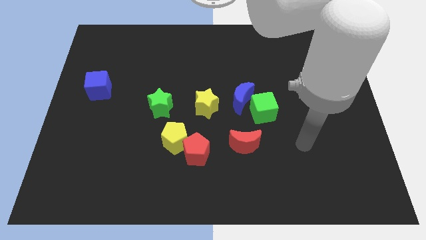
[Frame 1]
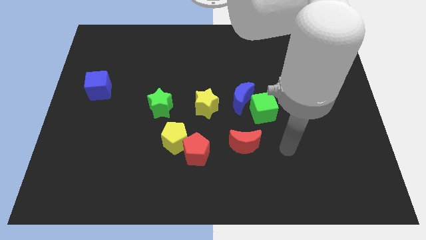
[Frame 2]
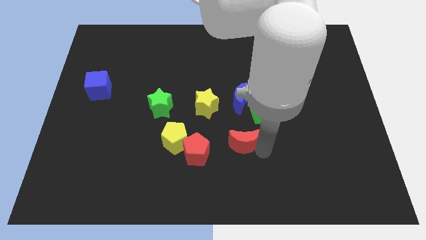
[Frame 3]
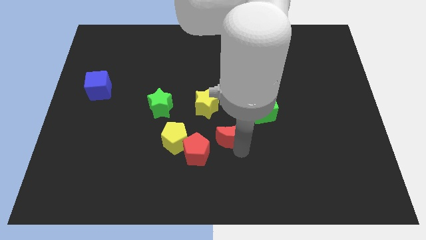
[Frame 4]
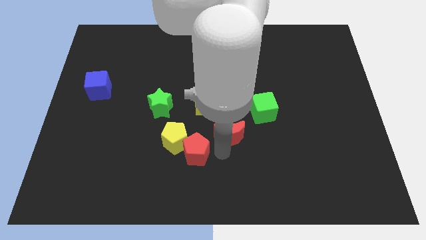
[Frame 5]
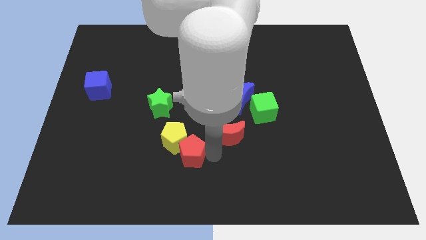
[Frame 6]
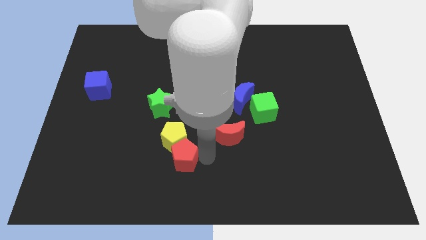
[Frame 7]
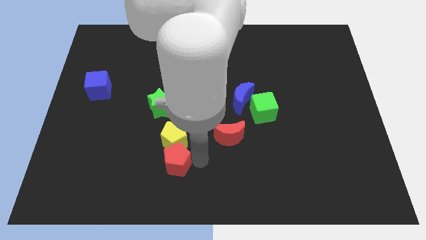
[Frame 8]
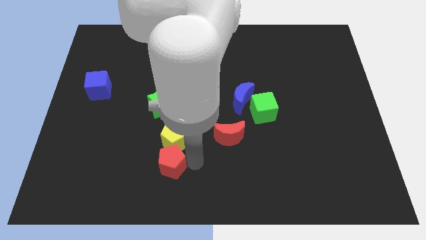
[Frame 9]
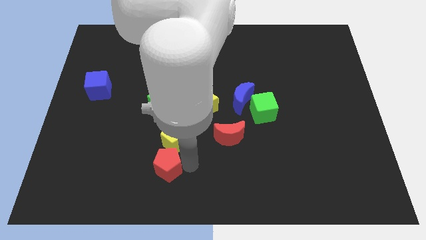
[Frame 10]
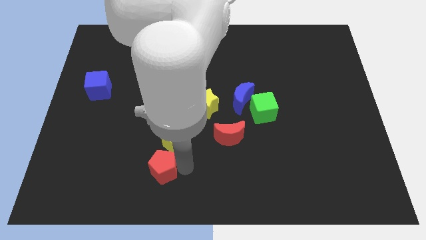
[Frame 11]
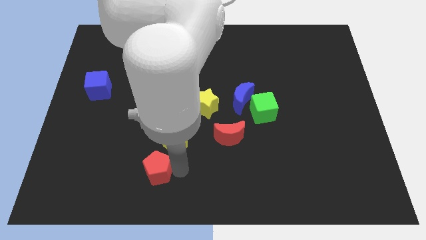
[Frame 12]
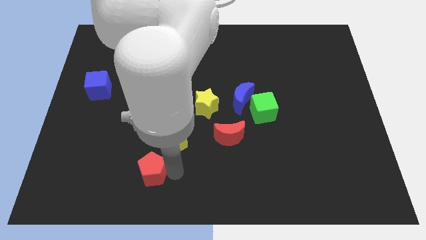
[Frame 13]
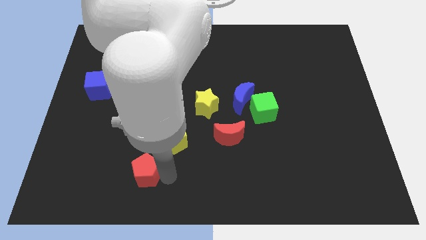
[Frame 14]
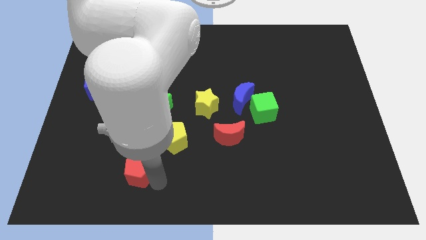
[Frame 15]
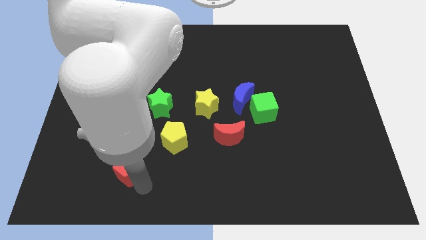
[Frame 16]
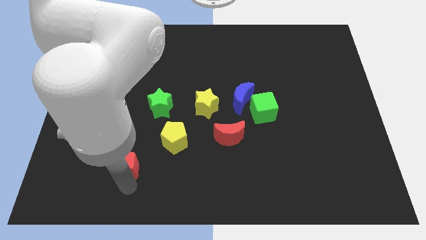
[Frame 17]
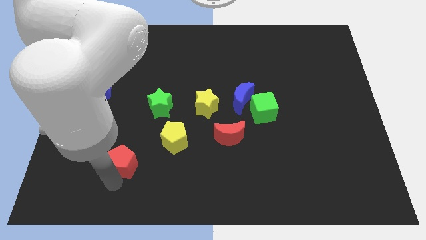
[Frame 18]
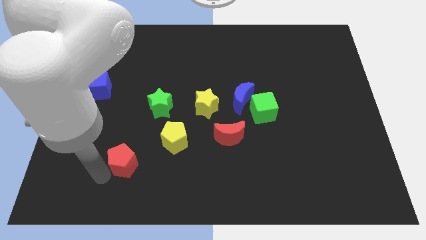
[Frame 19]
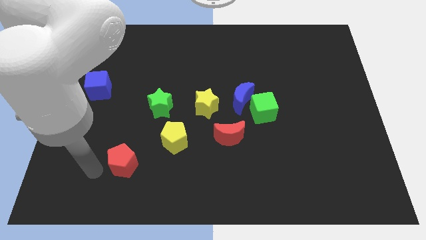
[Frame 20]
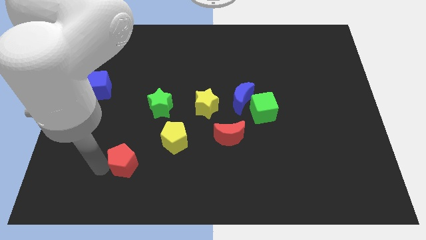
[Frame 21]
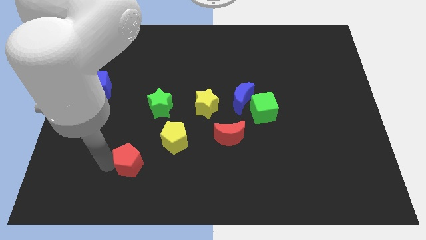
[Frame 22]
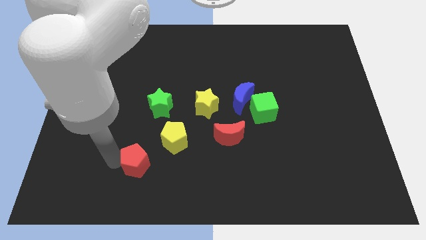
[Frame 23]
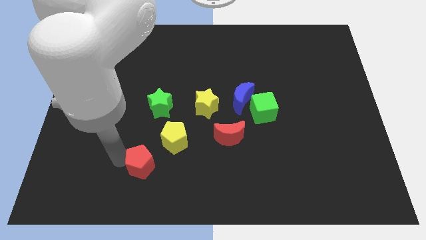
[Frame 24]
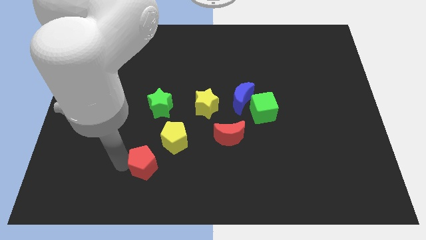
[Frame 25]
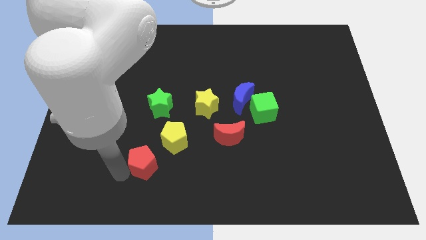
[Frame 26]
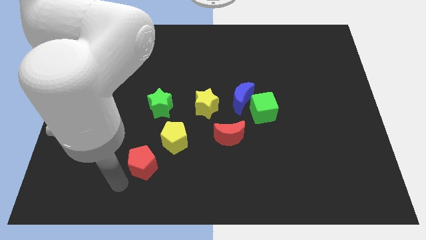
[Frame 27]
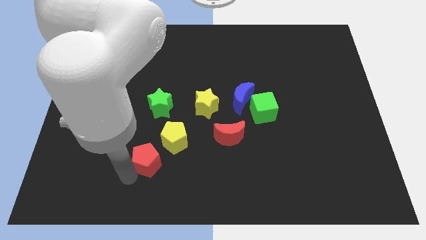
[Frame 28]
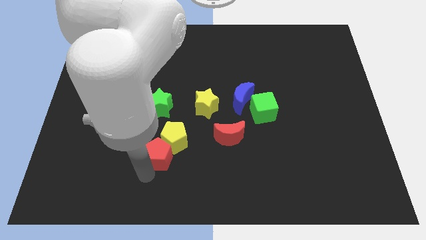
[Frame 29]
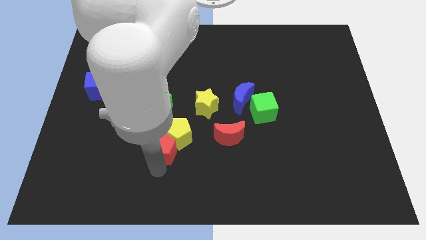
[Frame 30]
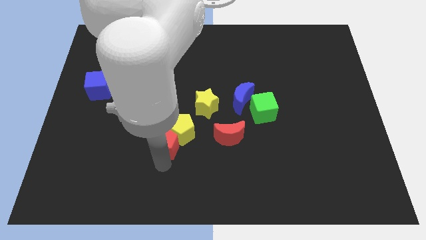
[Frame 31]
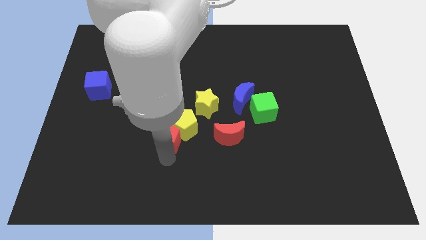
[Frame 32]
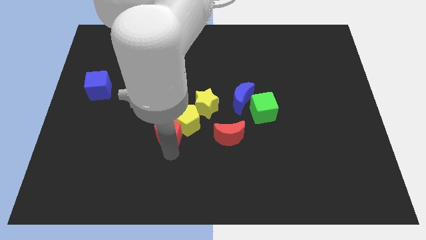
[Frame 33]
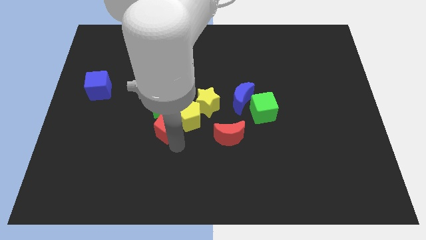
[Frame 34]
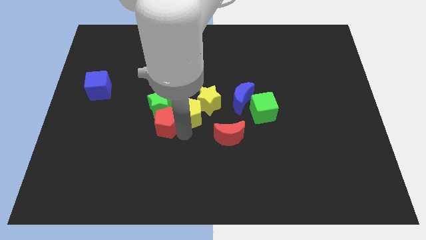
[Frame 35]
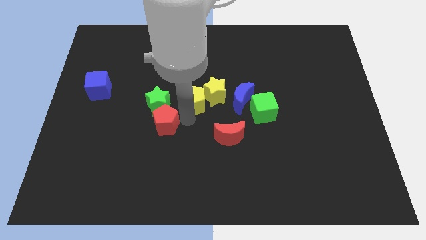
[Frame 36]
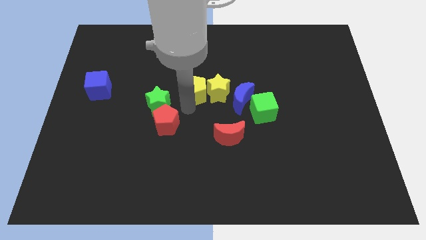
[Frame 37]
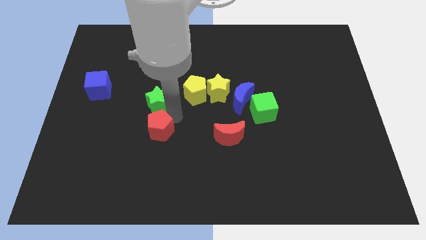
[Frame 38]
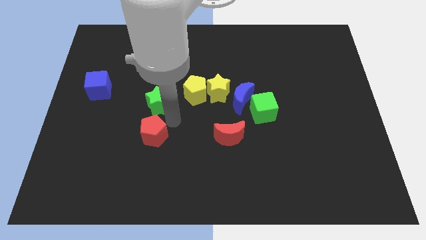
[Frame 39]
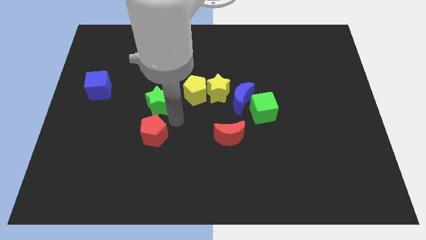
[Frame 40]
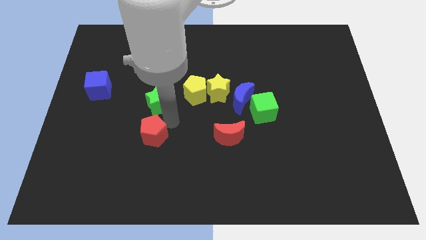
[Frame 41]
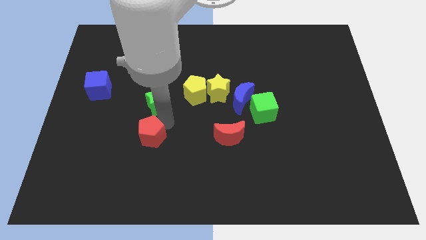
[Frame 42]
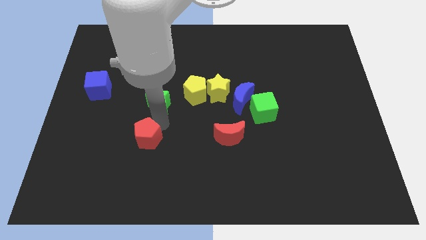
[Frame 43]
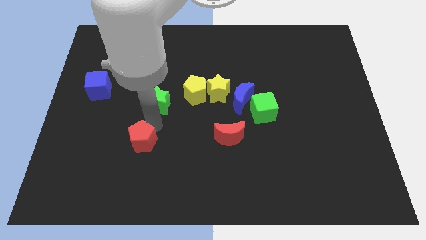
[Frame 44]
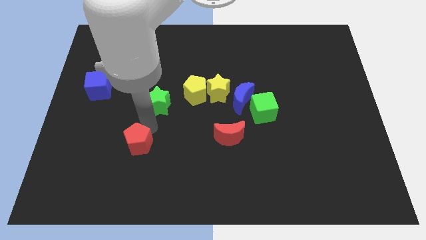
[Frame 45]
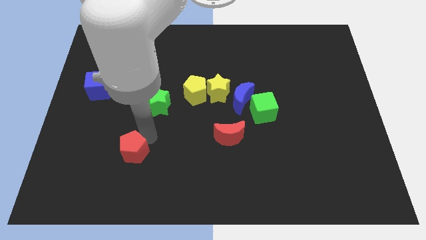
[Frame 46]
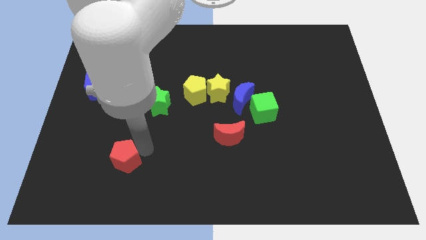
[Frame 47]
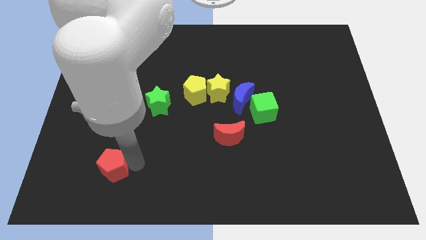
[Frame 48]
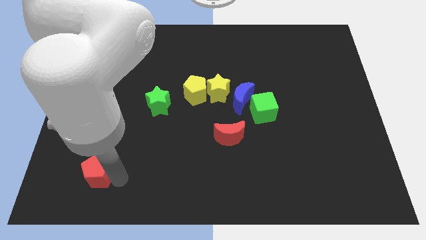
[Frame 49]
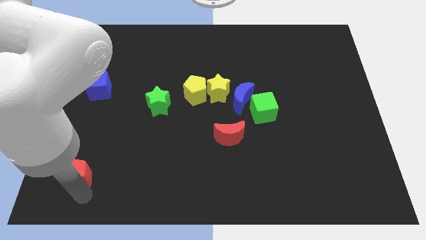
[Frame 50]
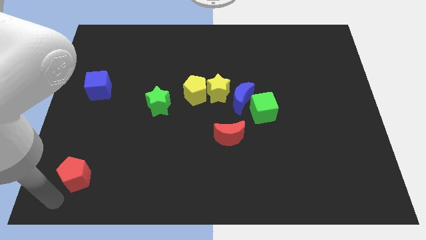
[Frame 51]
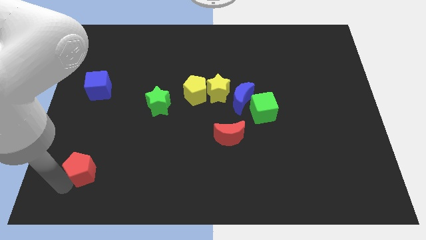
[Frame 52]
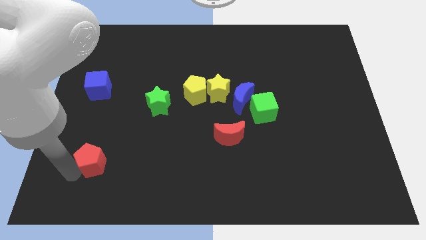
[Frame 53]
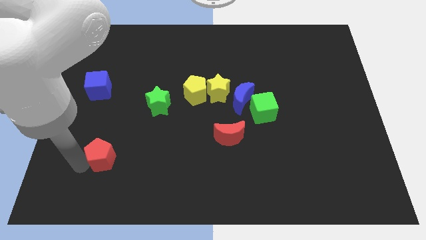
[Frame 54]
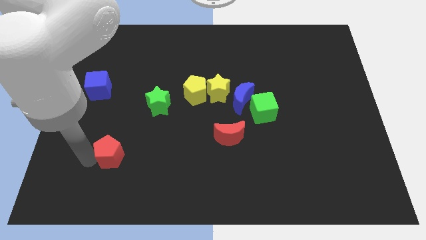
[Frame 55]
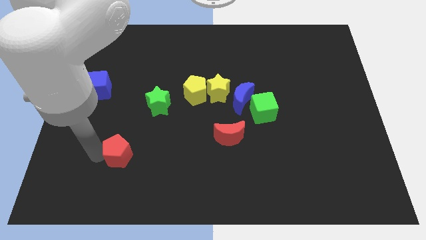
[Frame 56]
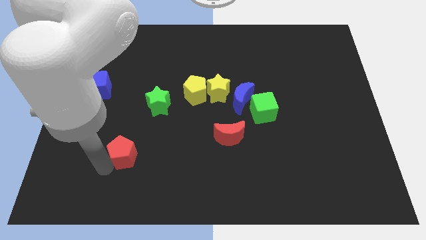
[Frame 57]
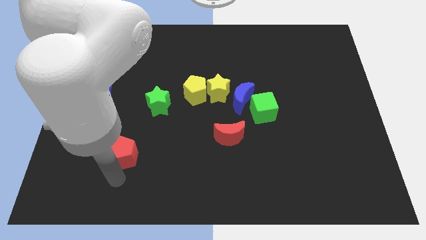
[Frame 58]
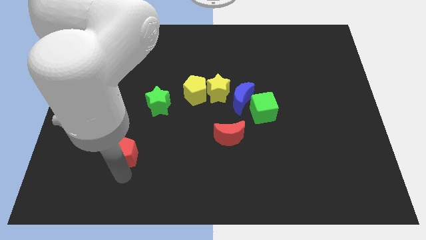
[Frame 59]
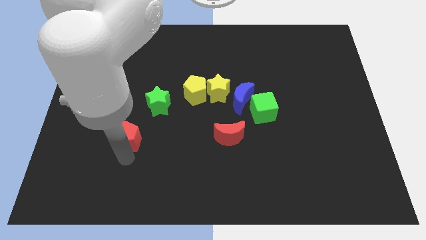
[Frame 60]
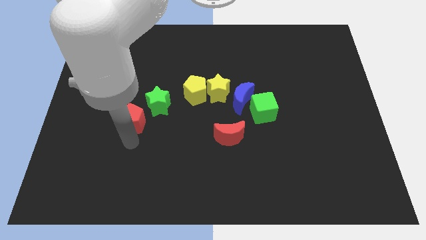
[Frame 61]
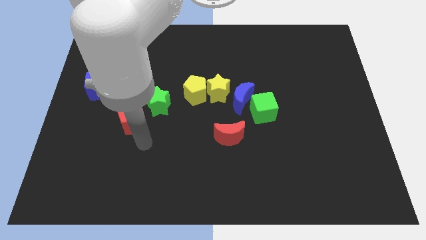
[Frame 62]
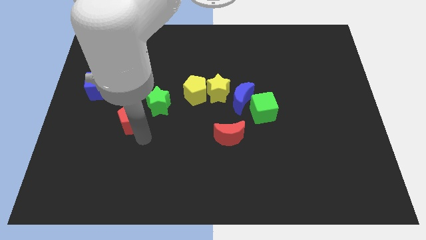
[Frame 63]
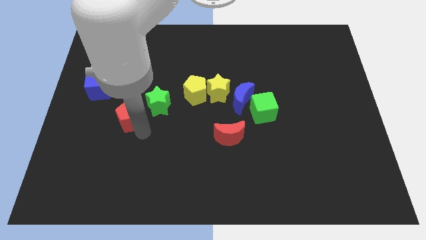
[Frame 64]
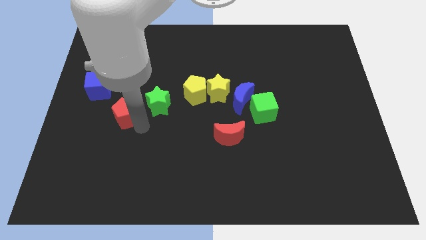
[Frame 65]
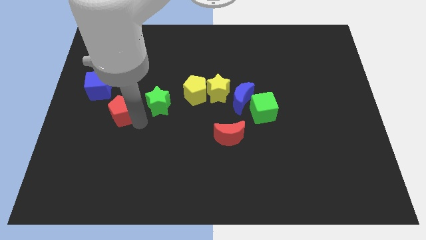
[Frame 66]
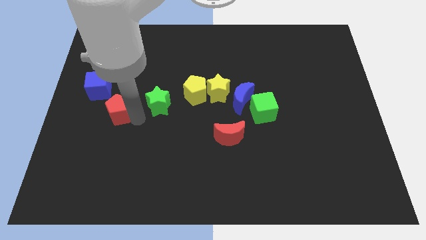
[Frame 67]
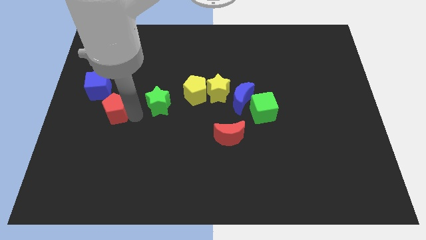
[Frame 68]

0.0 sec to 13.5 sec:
slide the red pentagon diagonally upwards and to the left

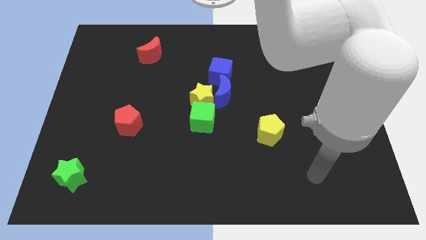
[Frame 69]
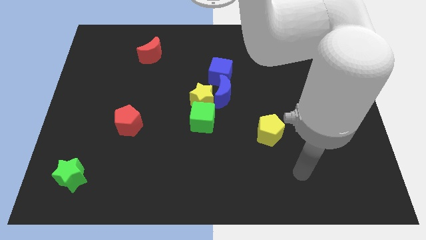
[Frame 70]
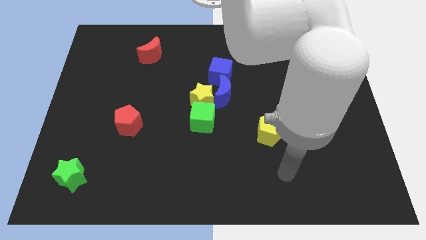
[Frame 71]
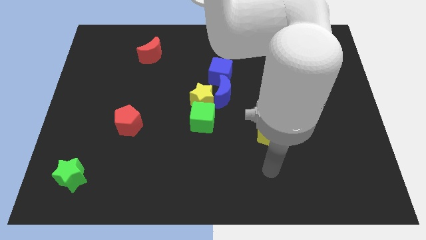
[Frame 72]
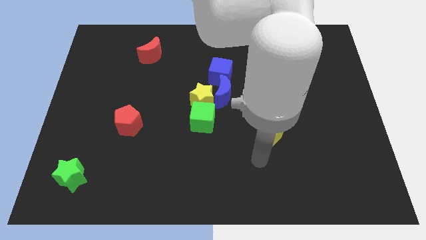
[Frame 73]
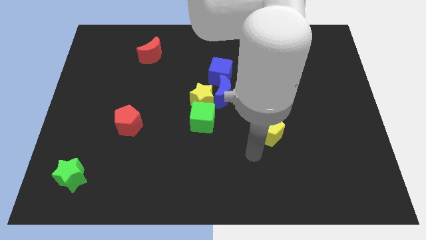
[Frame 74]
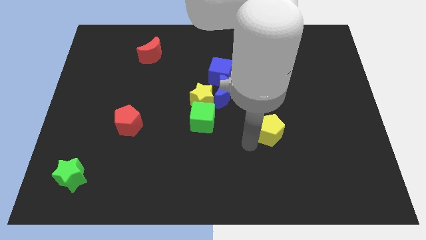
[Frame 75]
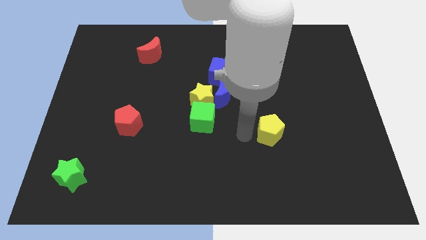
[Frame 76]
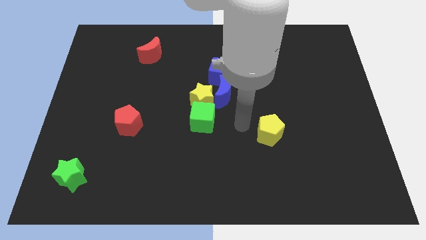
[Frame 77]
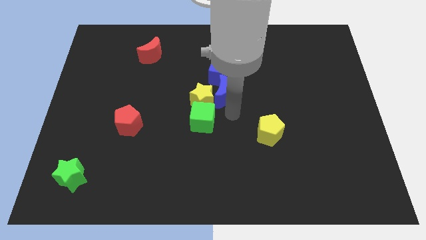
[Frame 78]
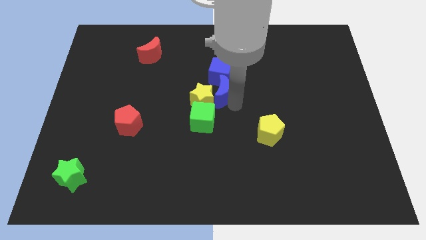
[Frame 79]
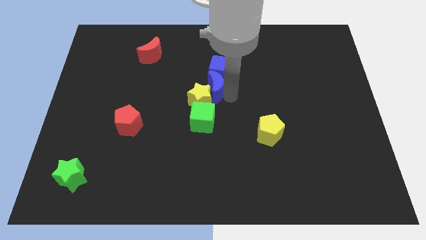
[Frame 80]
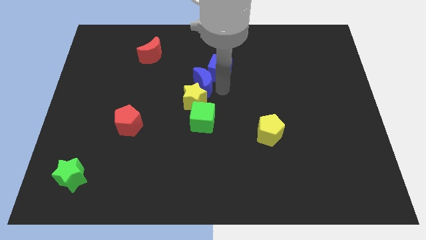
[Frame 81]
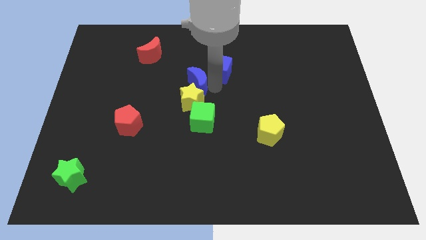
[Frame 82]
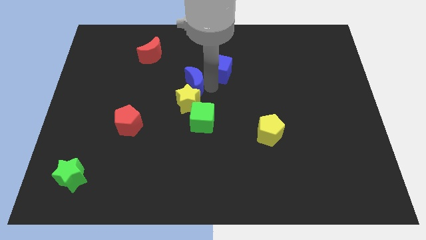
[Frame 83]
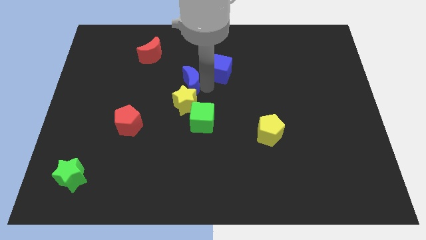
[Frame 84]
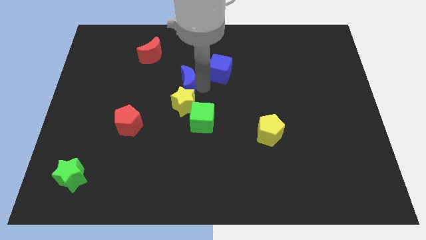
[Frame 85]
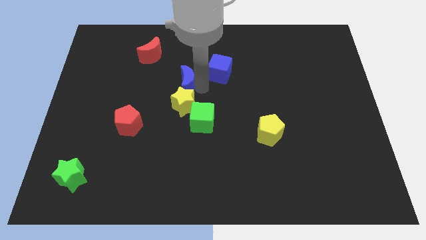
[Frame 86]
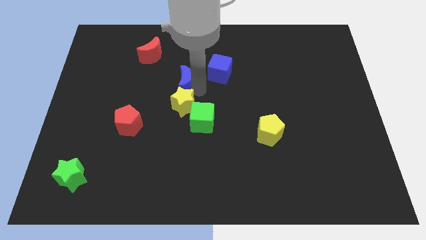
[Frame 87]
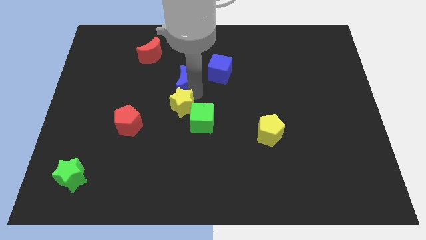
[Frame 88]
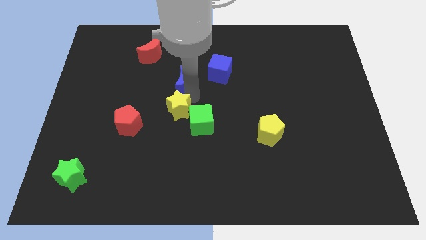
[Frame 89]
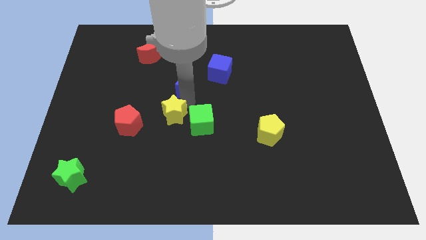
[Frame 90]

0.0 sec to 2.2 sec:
slide the yellow star a little downwards and left diagonally
